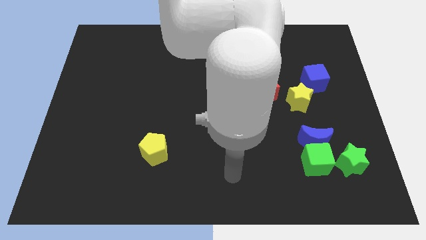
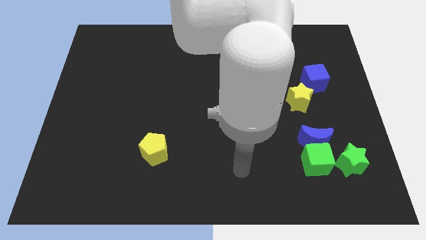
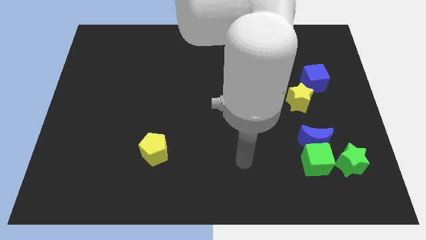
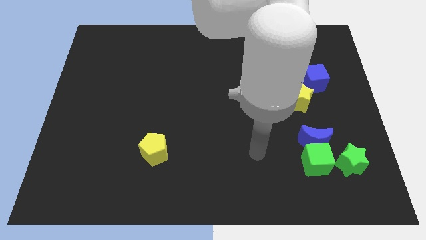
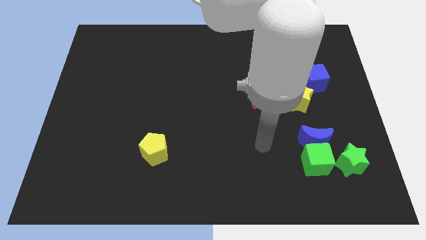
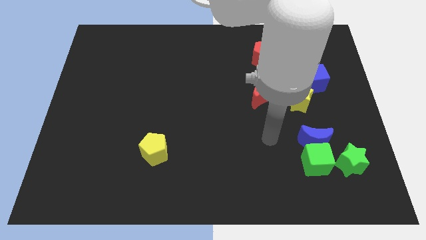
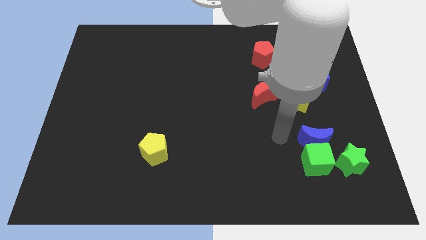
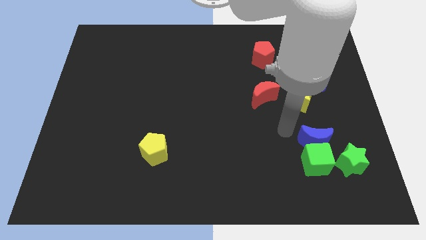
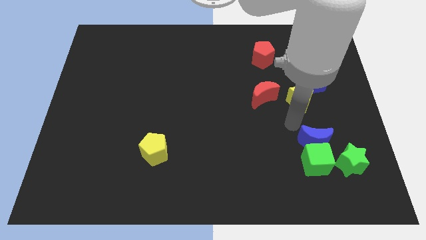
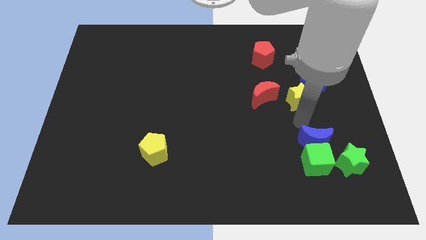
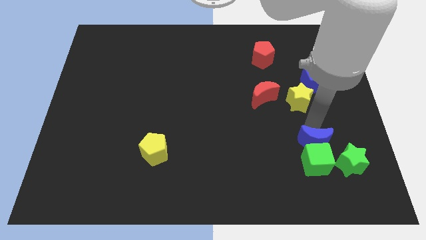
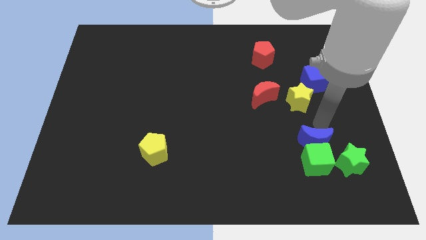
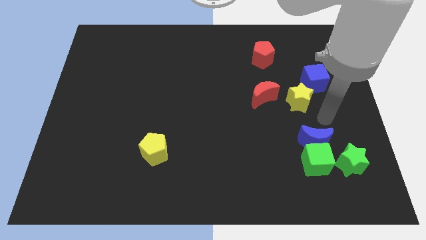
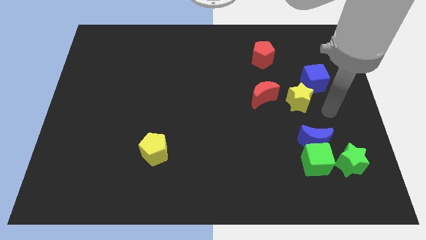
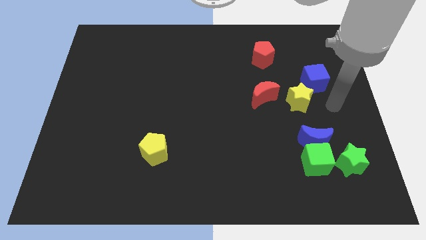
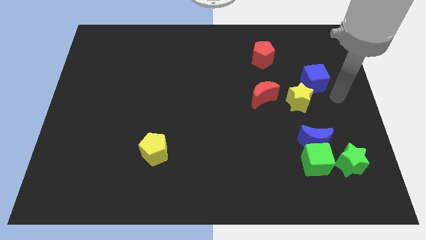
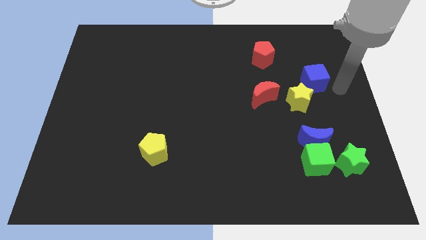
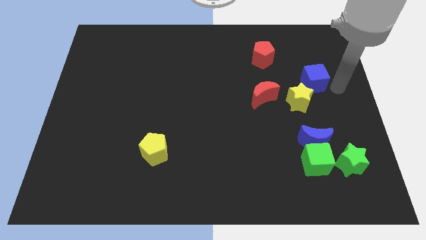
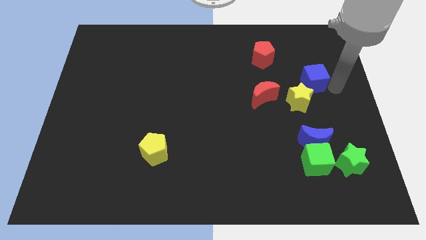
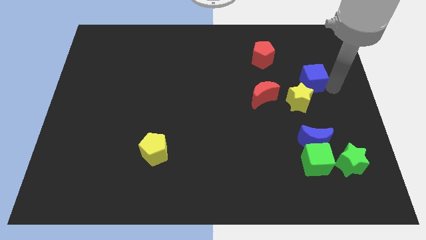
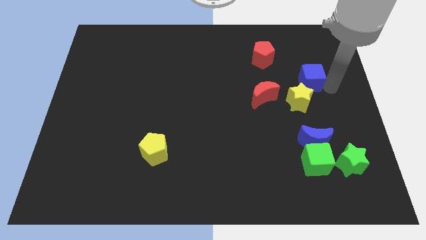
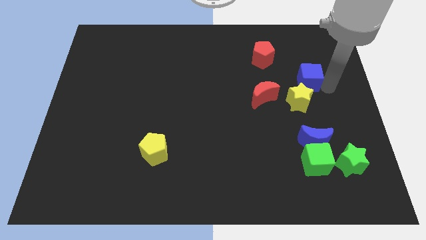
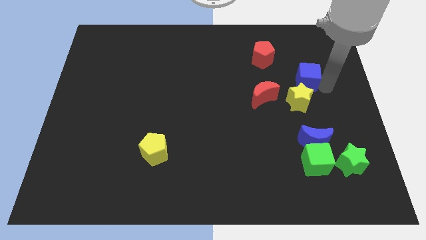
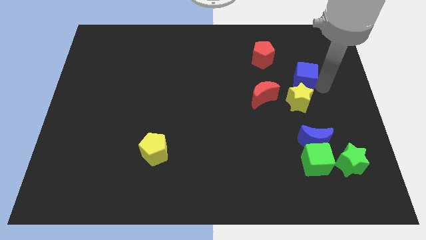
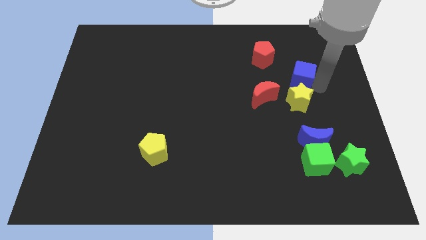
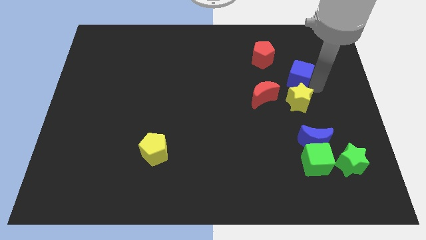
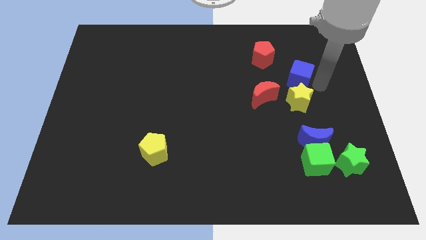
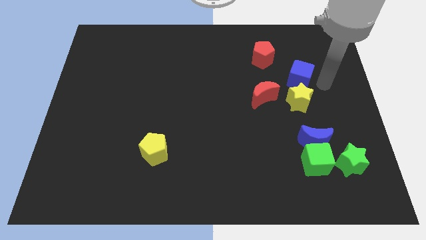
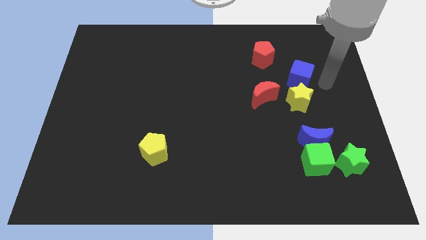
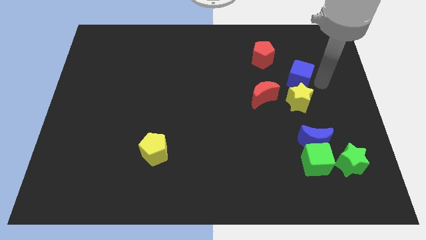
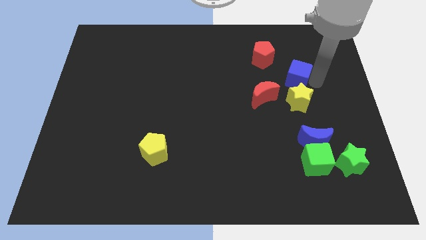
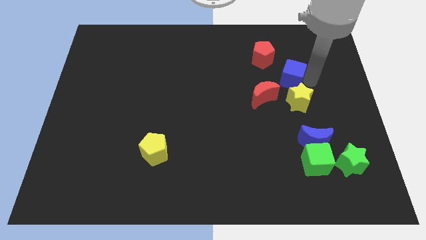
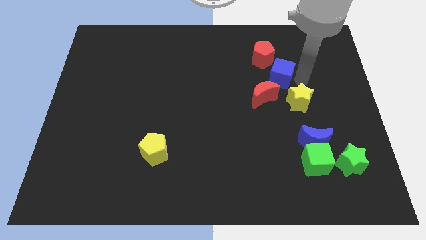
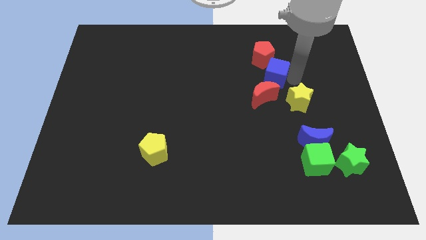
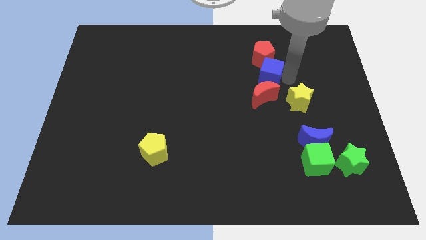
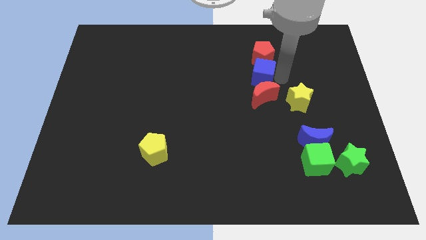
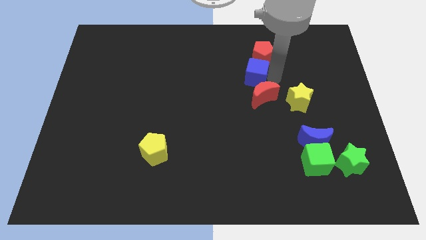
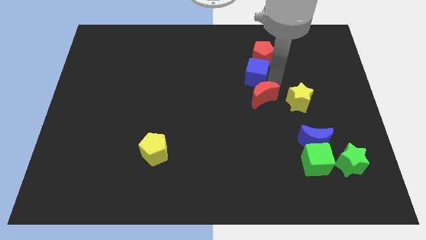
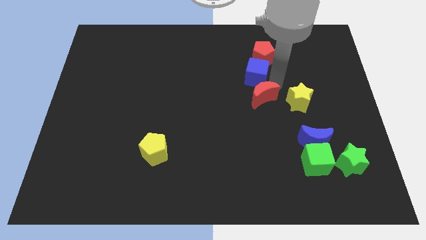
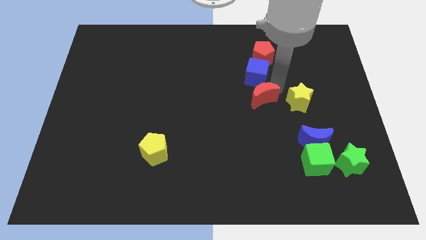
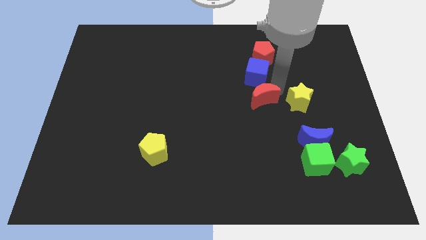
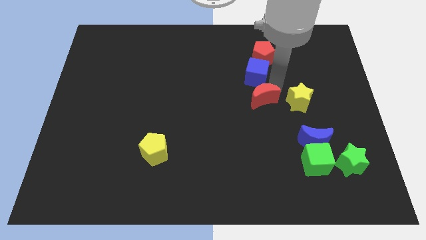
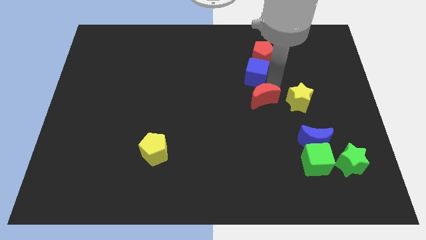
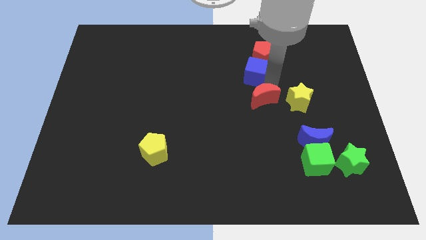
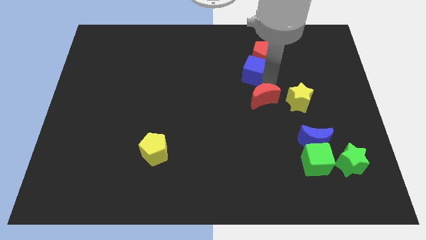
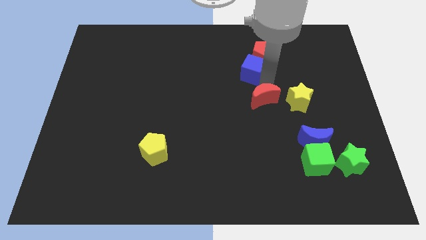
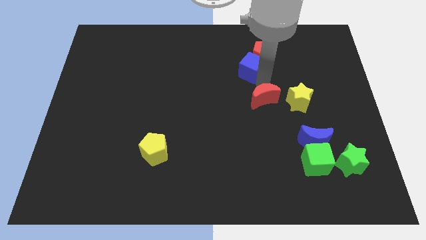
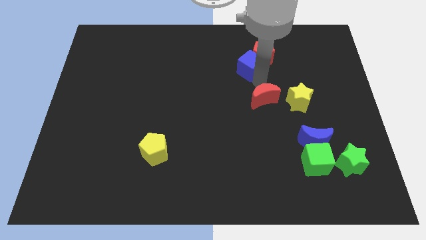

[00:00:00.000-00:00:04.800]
push the blue cube to the left side of the red pentagon

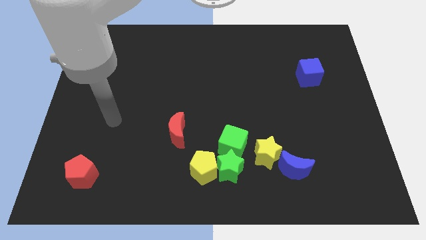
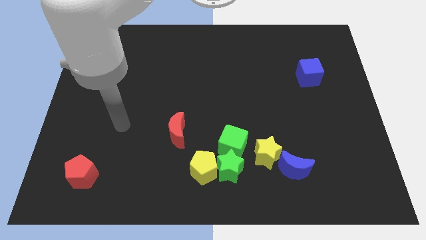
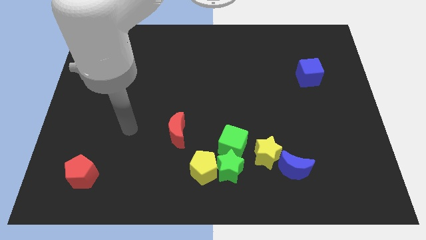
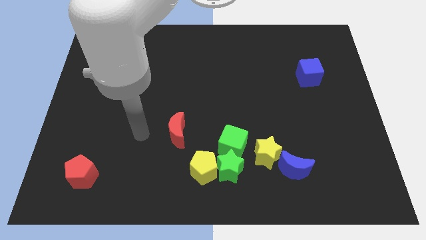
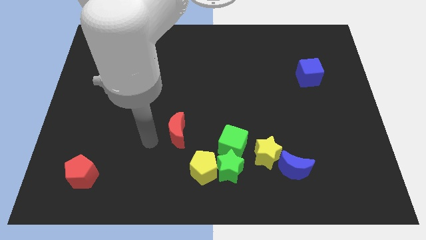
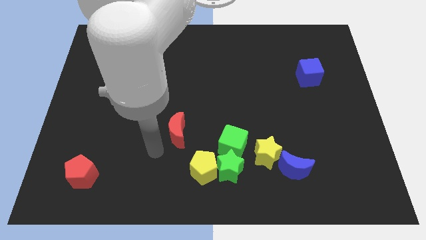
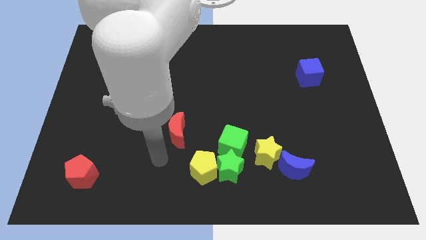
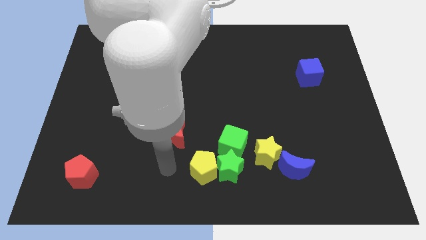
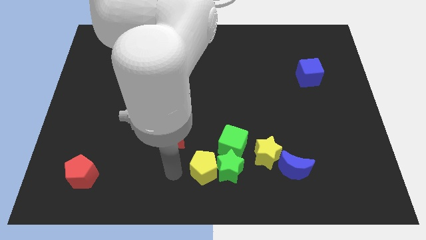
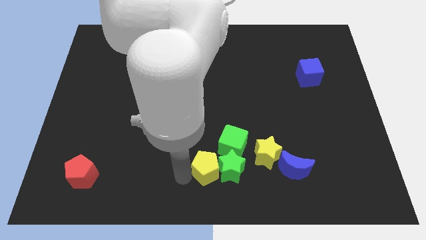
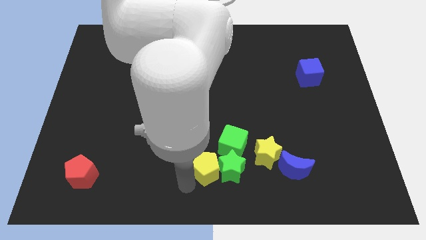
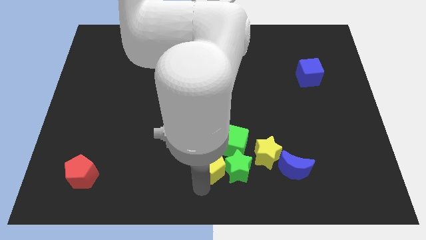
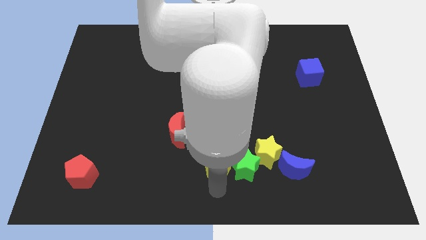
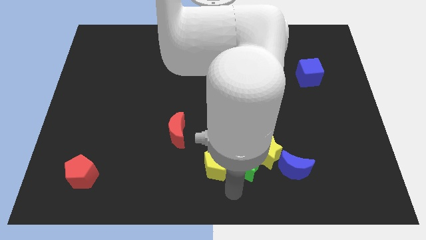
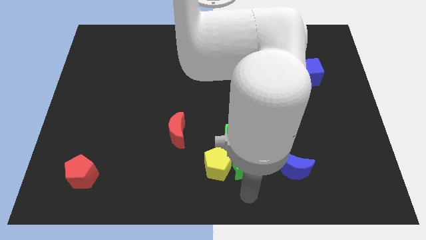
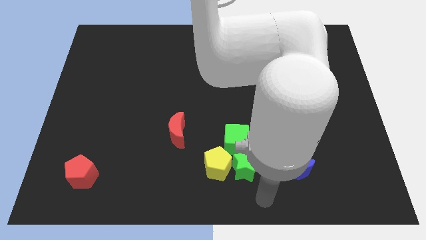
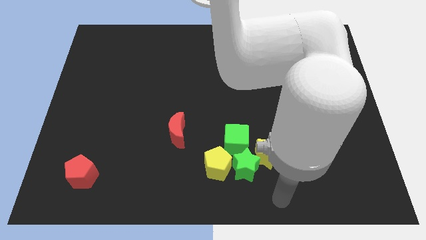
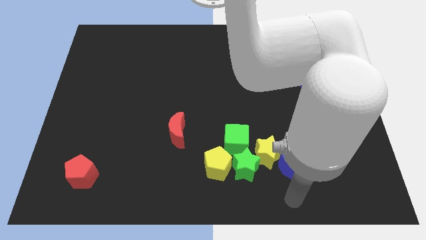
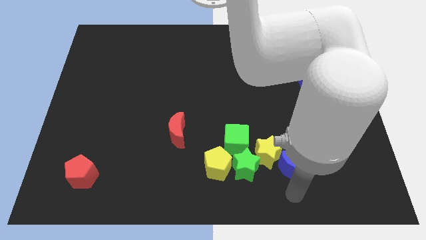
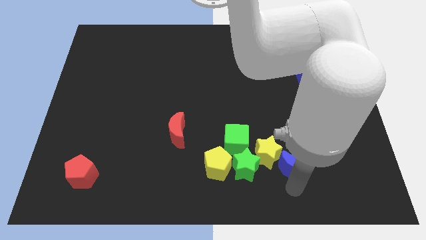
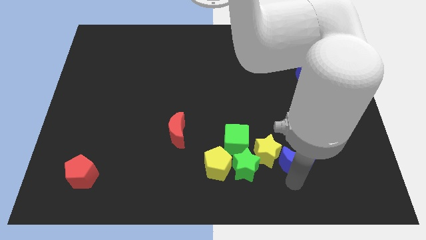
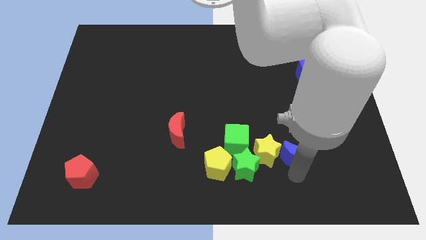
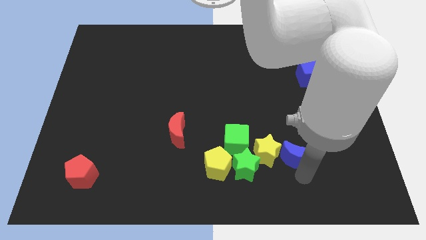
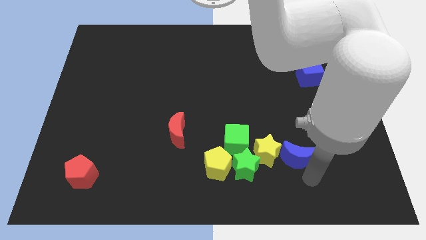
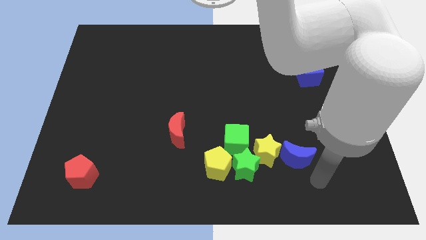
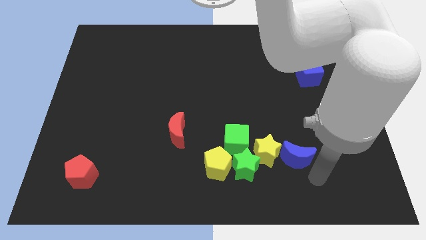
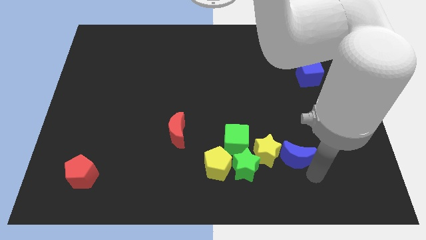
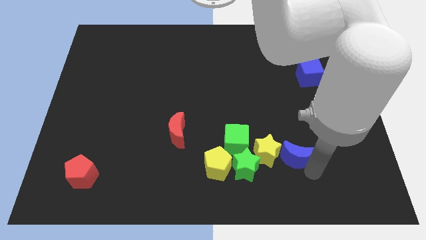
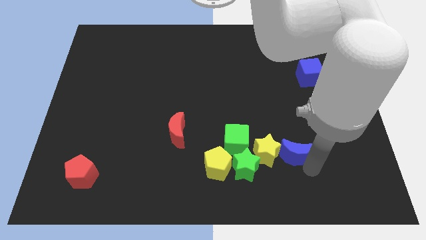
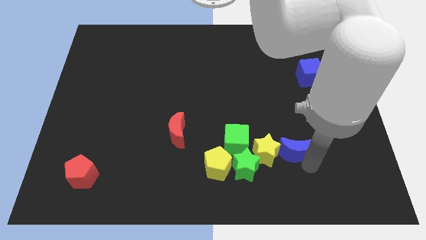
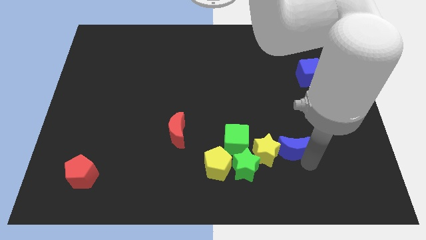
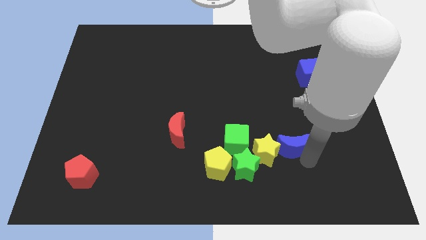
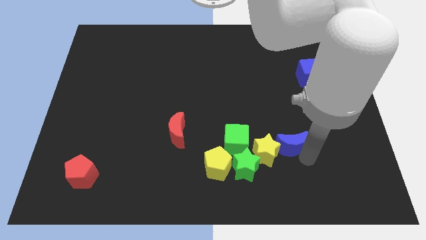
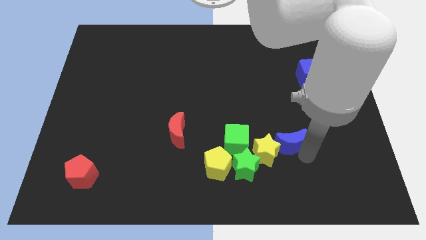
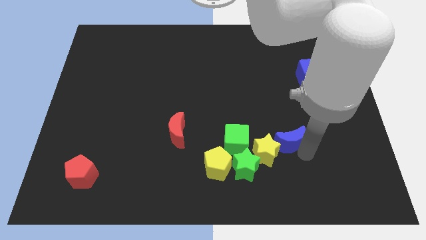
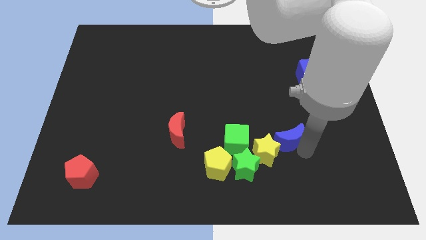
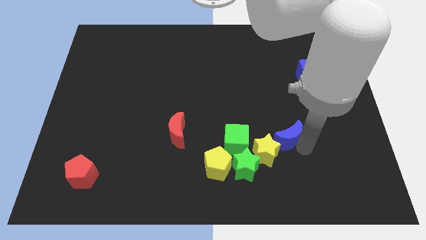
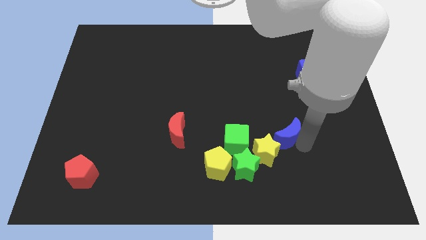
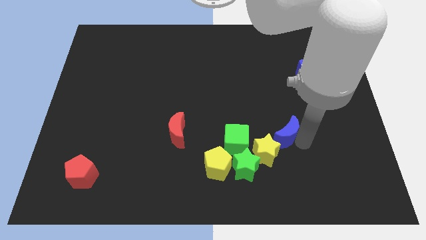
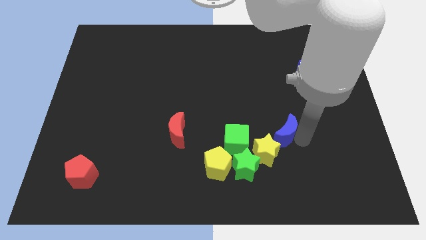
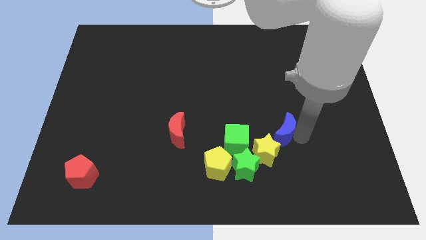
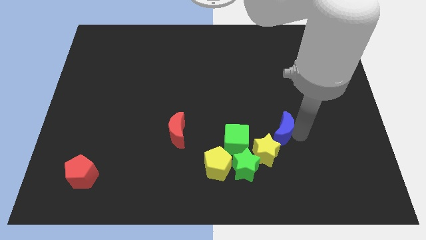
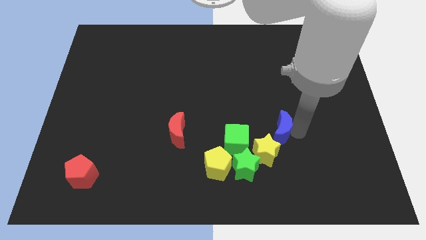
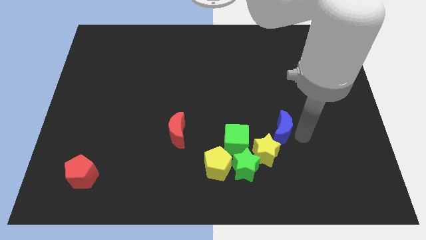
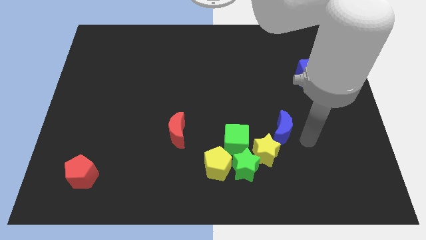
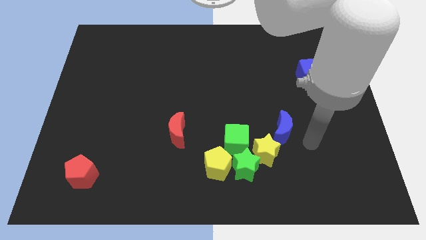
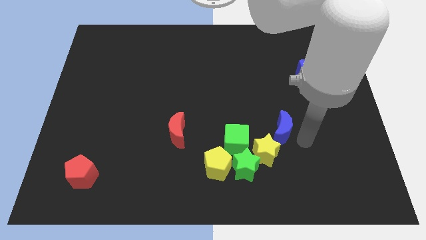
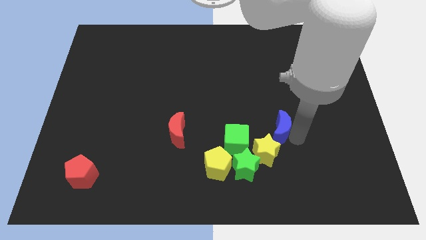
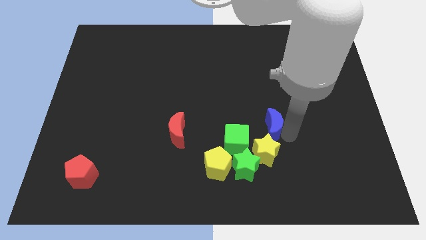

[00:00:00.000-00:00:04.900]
slide the blue moon to the top right of the green cube
